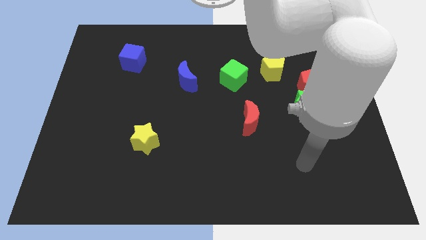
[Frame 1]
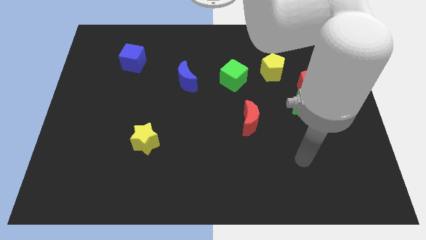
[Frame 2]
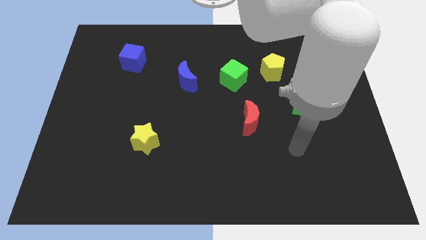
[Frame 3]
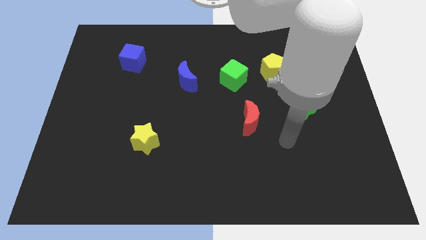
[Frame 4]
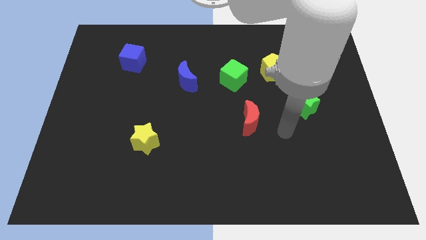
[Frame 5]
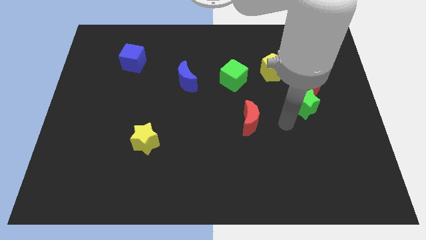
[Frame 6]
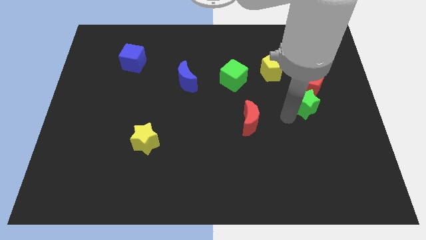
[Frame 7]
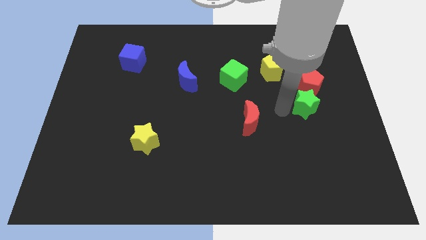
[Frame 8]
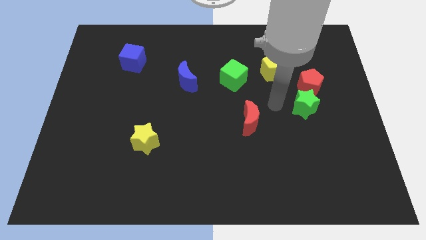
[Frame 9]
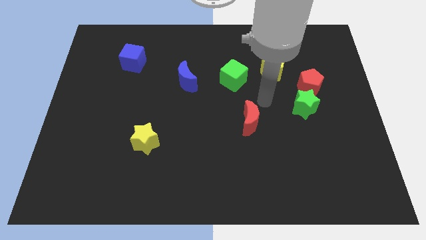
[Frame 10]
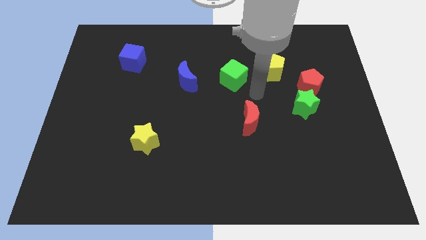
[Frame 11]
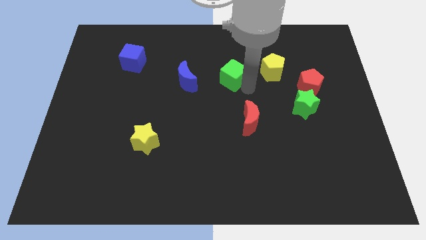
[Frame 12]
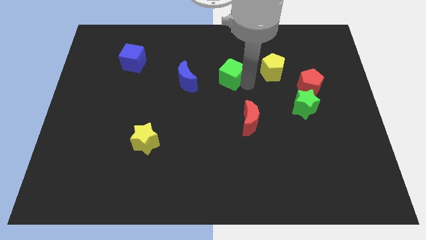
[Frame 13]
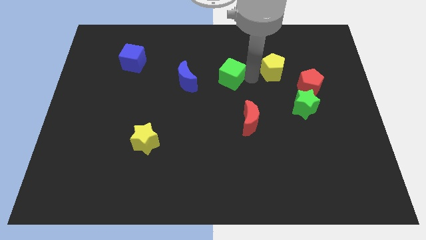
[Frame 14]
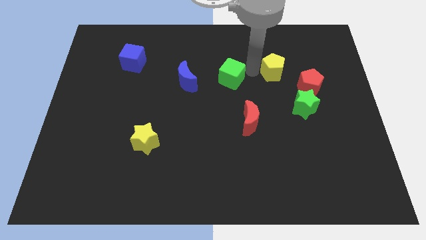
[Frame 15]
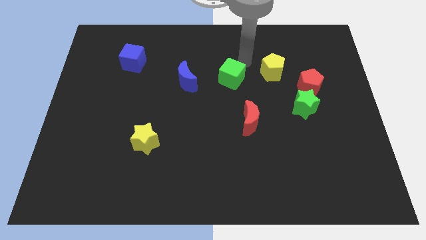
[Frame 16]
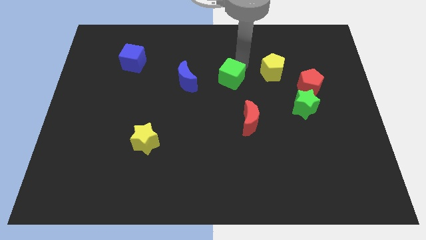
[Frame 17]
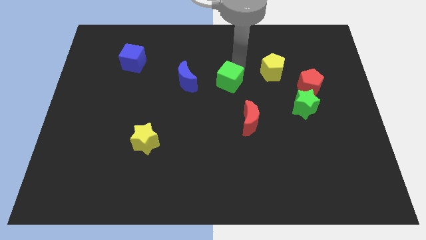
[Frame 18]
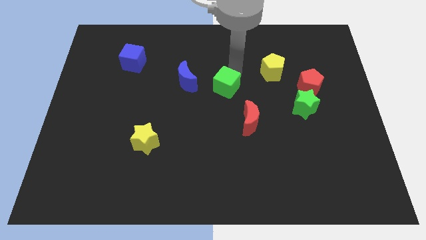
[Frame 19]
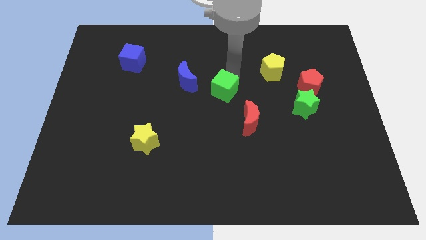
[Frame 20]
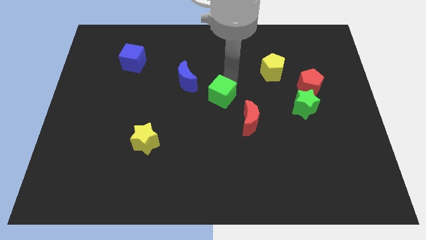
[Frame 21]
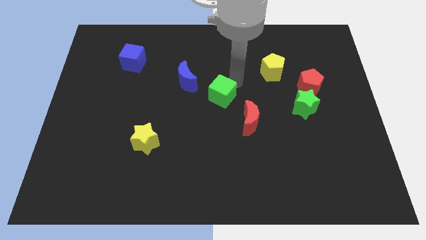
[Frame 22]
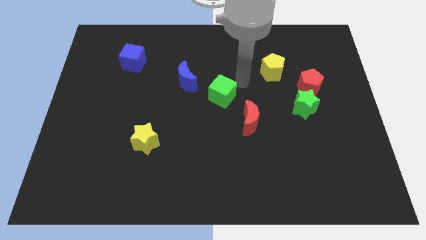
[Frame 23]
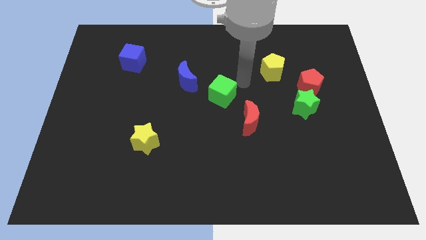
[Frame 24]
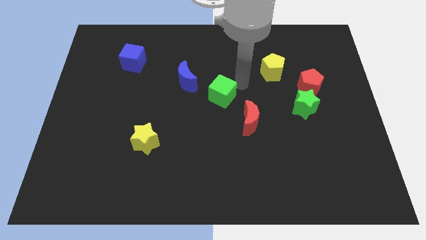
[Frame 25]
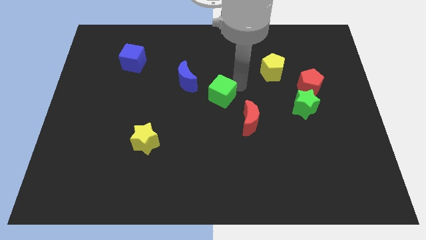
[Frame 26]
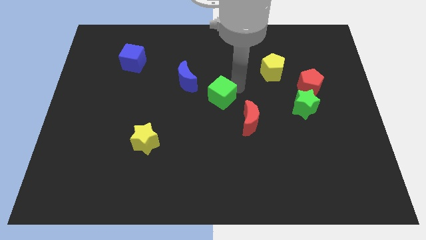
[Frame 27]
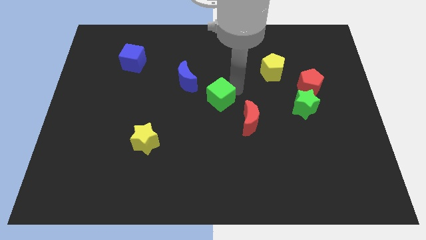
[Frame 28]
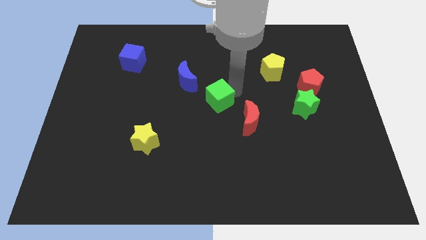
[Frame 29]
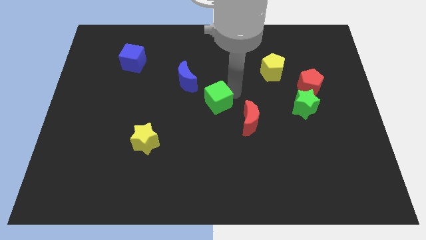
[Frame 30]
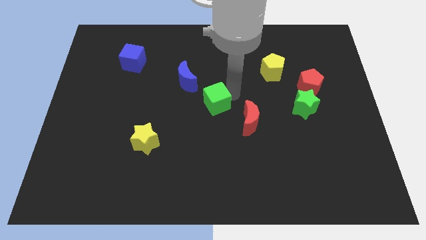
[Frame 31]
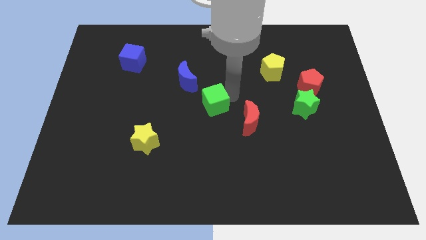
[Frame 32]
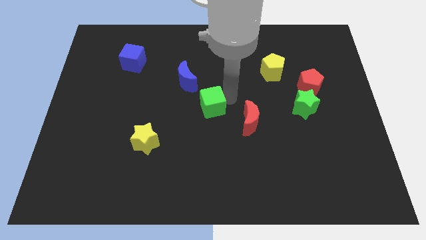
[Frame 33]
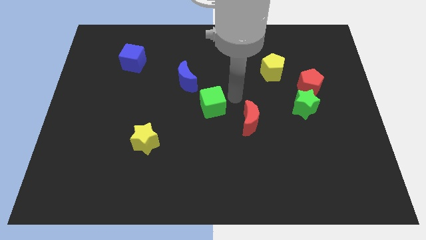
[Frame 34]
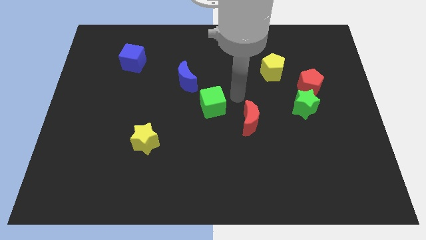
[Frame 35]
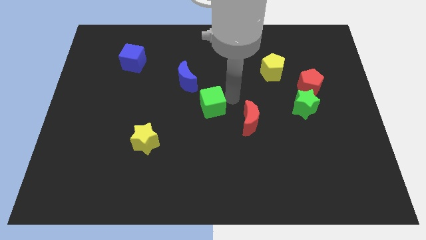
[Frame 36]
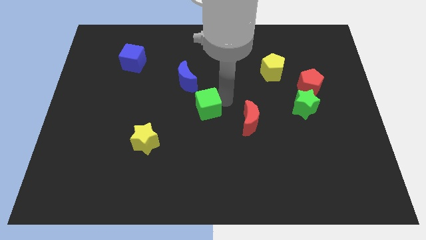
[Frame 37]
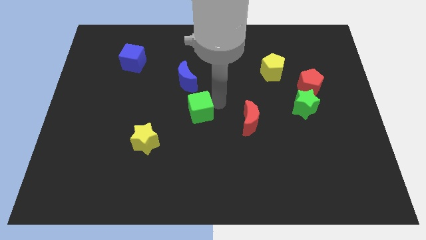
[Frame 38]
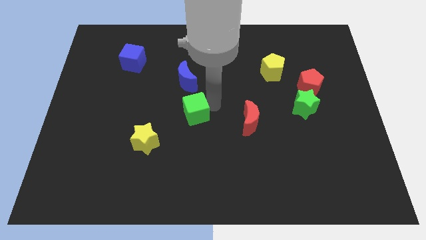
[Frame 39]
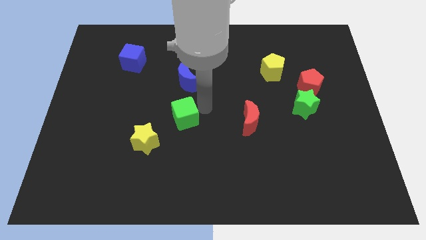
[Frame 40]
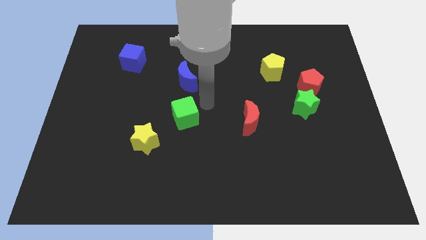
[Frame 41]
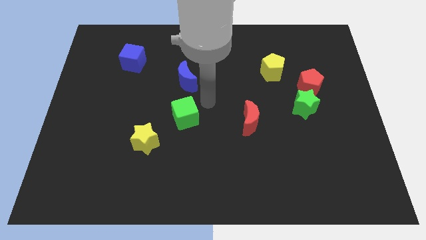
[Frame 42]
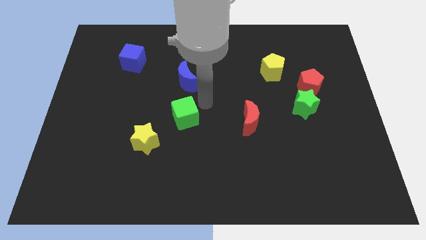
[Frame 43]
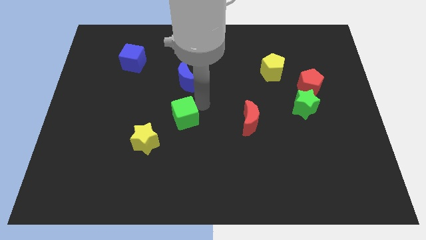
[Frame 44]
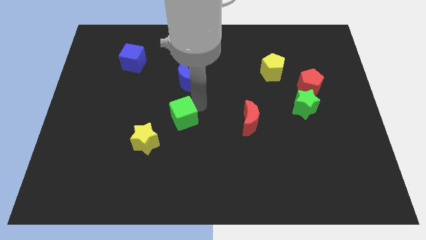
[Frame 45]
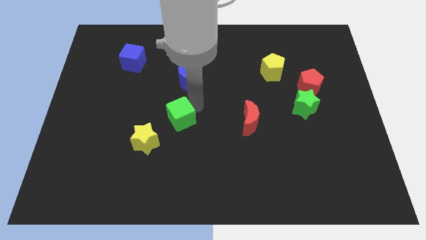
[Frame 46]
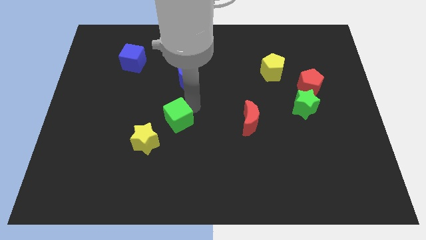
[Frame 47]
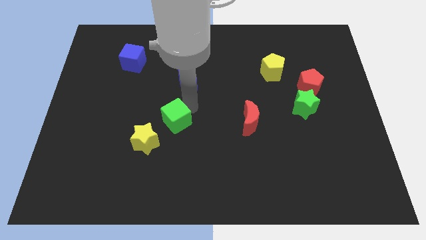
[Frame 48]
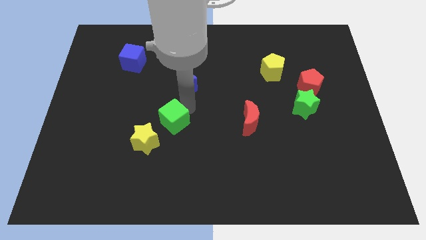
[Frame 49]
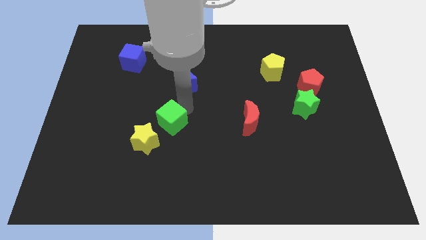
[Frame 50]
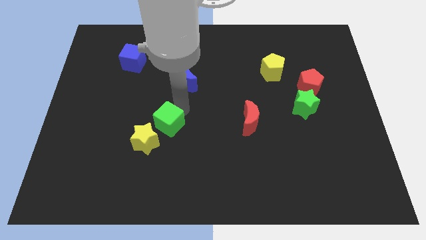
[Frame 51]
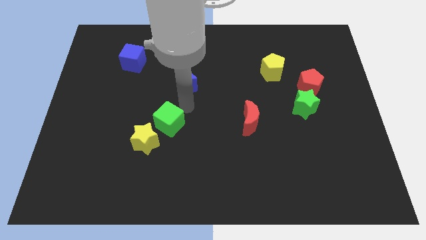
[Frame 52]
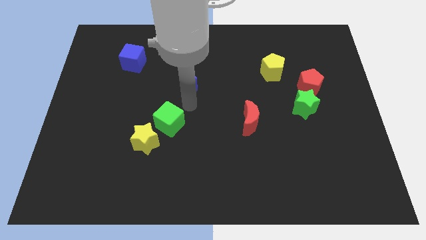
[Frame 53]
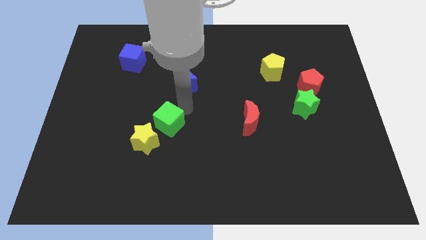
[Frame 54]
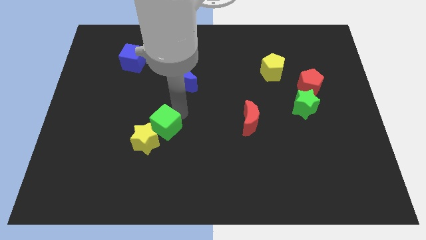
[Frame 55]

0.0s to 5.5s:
move the green cube close to the yellow star

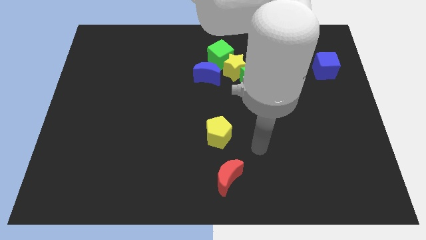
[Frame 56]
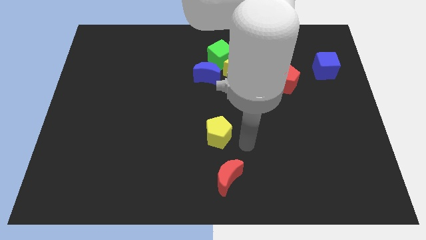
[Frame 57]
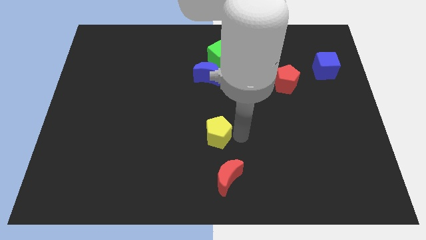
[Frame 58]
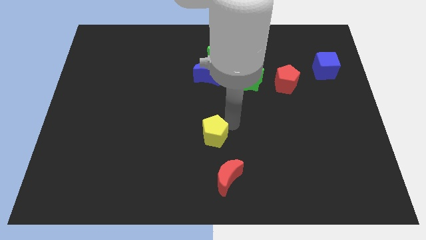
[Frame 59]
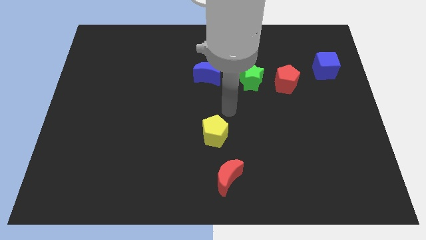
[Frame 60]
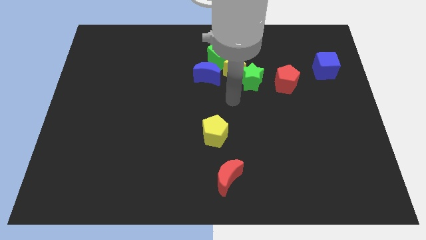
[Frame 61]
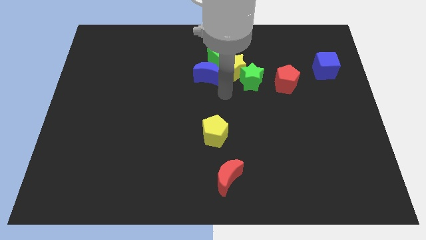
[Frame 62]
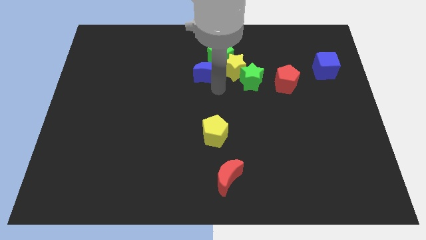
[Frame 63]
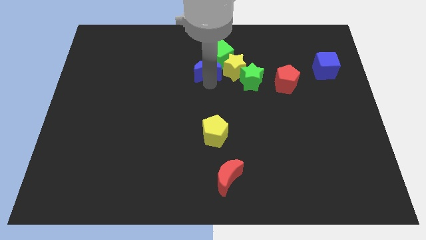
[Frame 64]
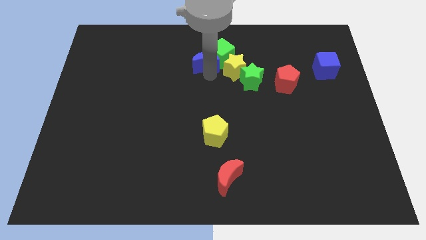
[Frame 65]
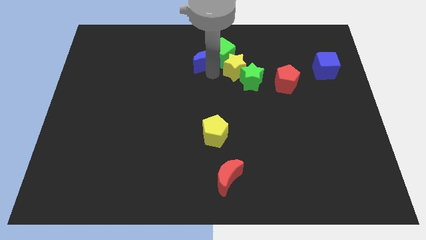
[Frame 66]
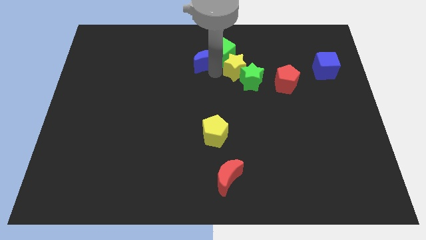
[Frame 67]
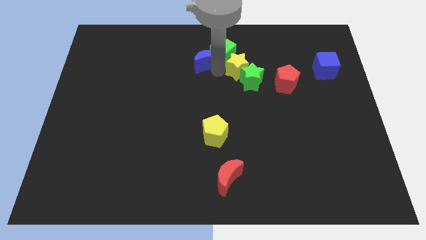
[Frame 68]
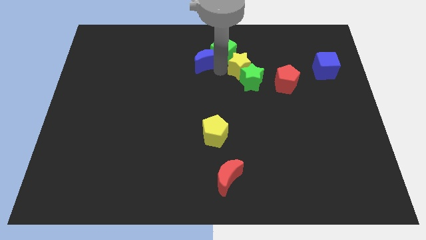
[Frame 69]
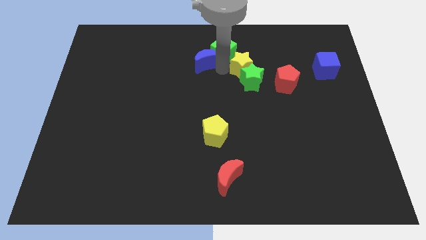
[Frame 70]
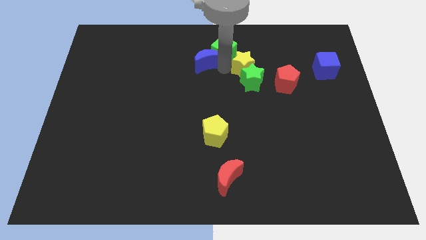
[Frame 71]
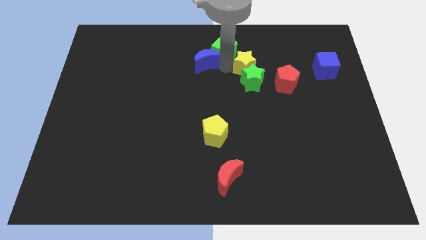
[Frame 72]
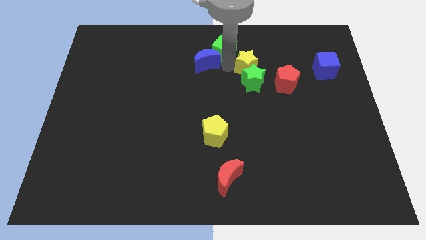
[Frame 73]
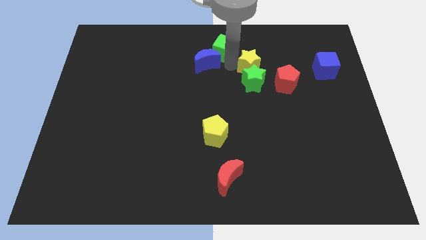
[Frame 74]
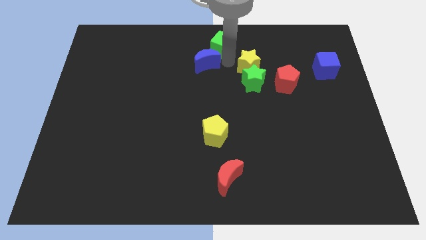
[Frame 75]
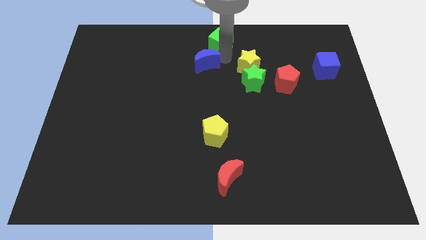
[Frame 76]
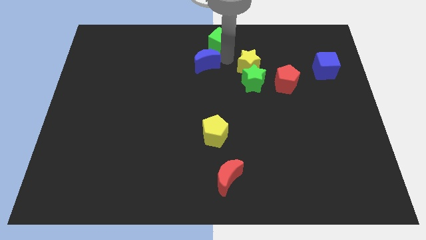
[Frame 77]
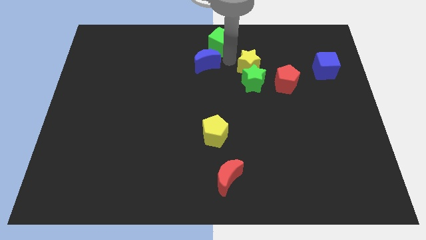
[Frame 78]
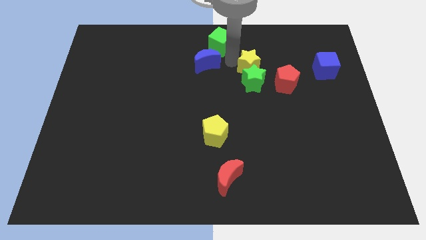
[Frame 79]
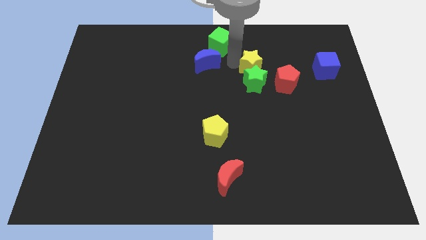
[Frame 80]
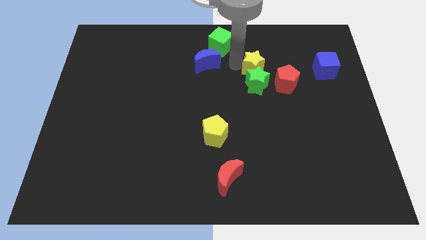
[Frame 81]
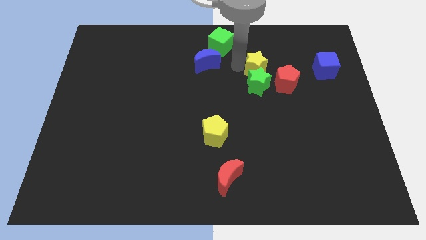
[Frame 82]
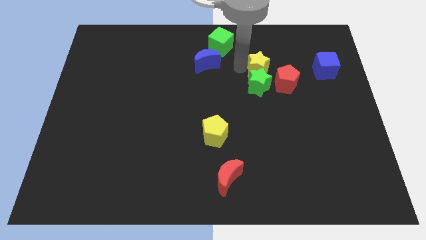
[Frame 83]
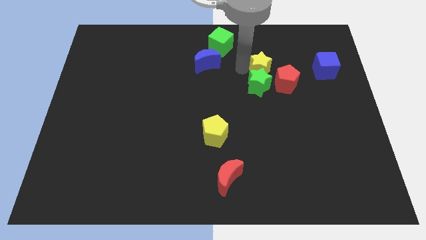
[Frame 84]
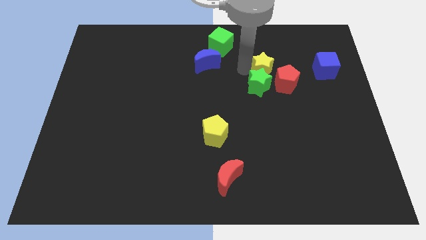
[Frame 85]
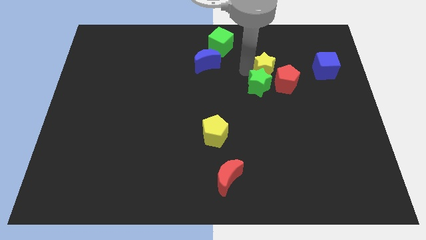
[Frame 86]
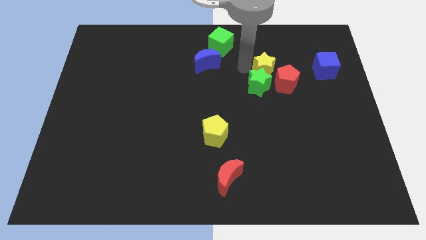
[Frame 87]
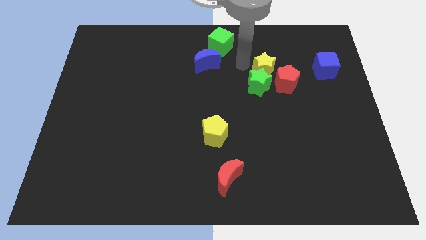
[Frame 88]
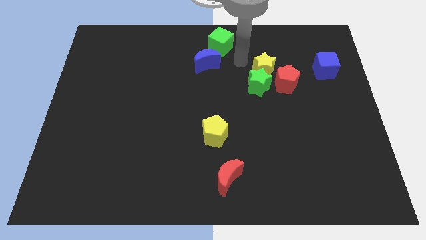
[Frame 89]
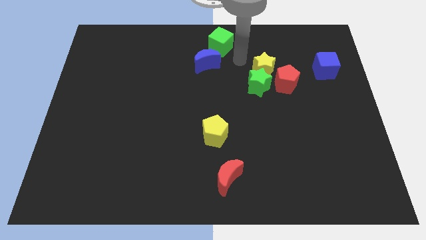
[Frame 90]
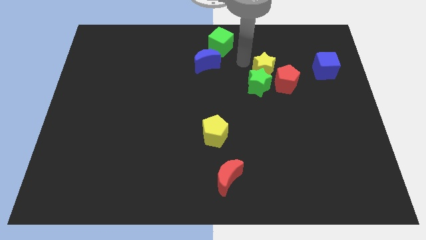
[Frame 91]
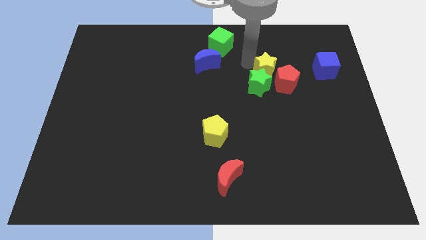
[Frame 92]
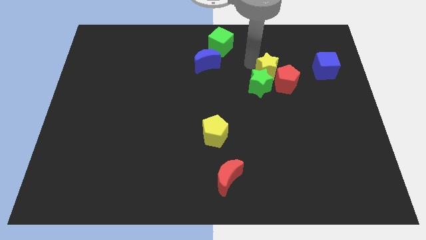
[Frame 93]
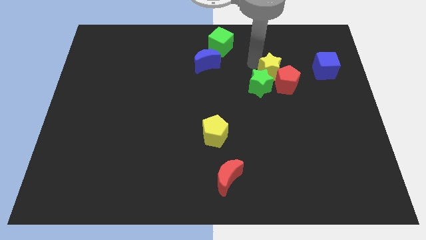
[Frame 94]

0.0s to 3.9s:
put the yellow star towards the red pentagon
